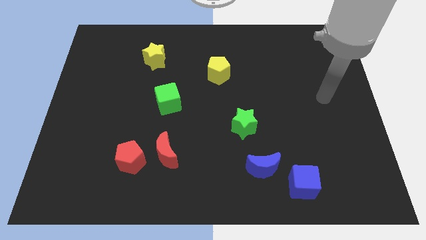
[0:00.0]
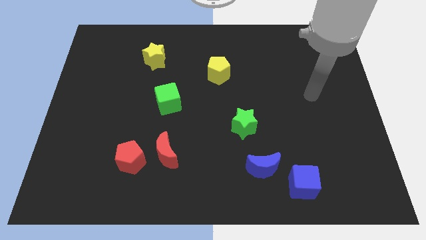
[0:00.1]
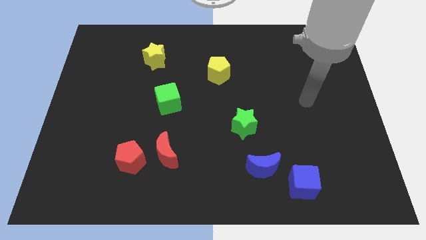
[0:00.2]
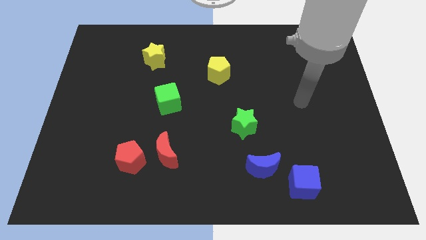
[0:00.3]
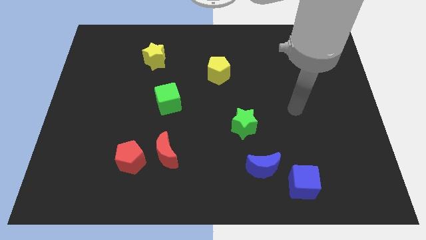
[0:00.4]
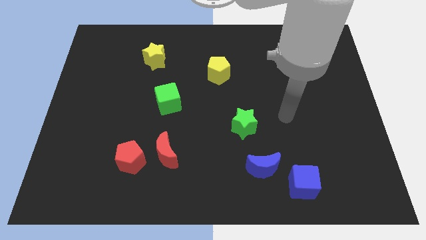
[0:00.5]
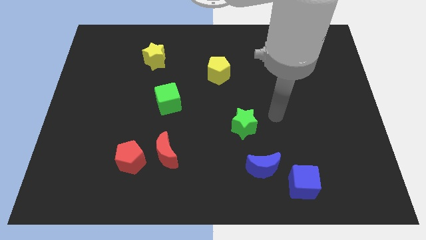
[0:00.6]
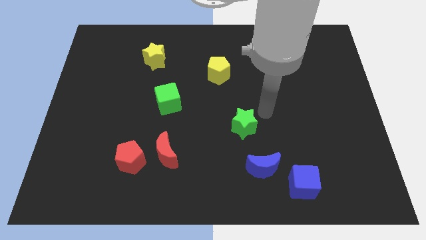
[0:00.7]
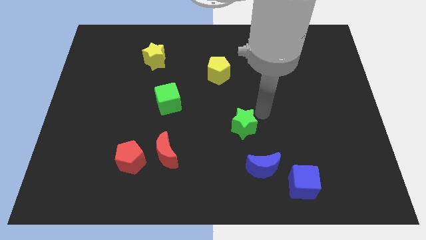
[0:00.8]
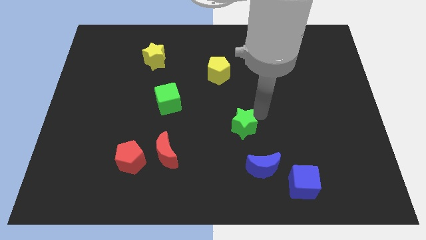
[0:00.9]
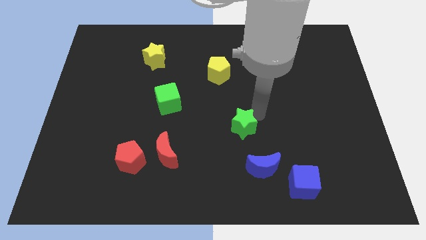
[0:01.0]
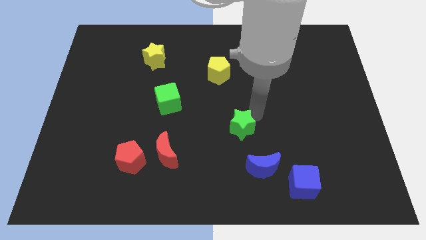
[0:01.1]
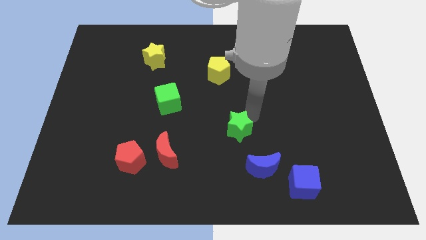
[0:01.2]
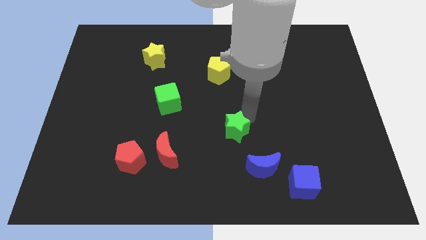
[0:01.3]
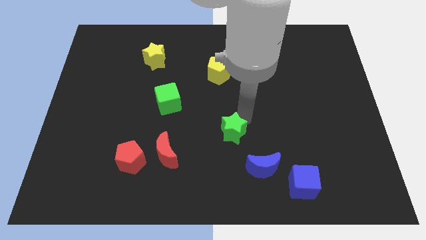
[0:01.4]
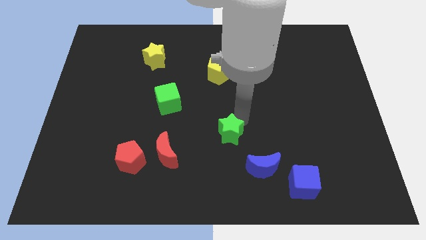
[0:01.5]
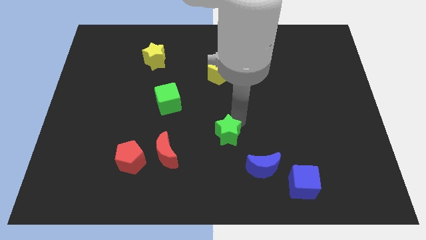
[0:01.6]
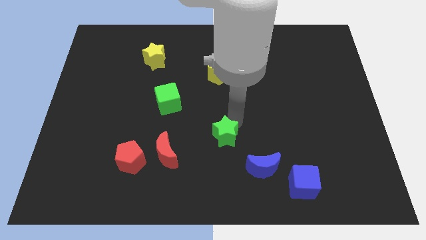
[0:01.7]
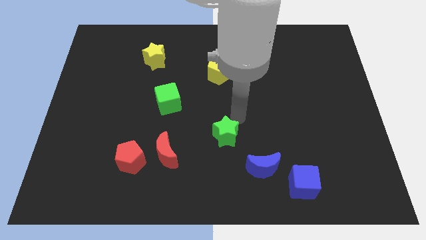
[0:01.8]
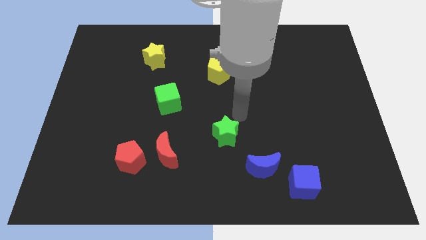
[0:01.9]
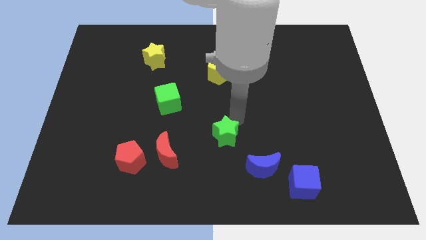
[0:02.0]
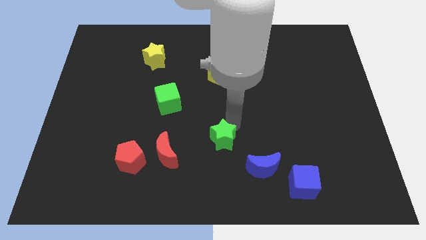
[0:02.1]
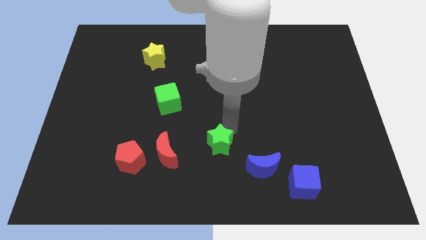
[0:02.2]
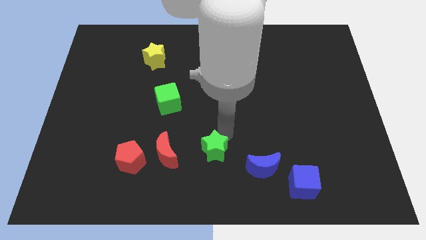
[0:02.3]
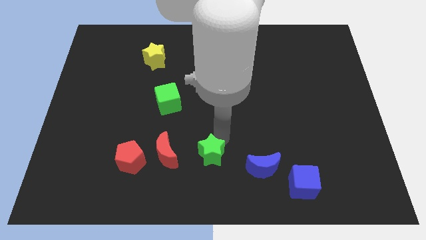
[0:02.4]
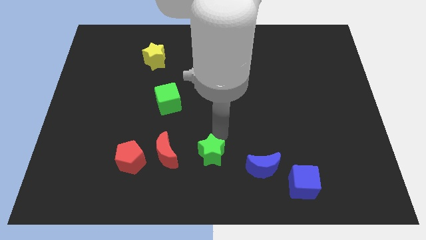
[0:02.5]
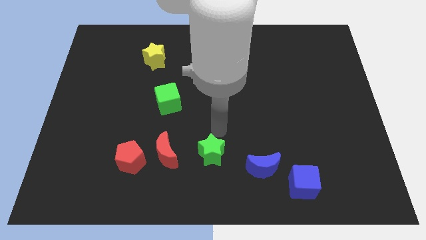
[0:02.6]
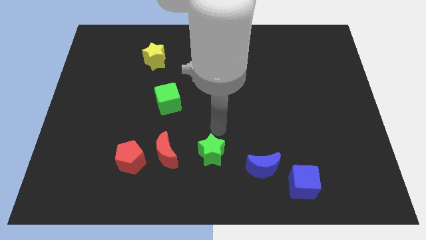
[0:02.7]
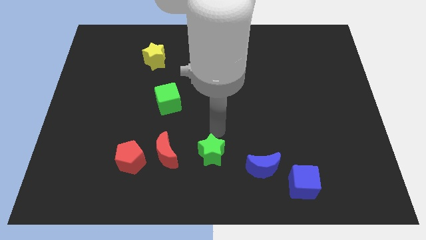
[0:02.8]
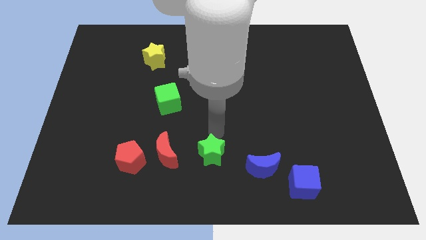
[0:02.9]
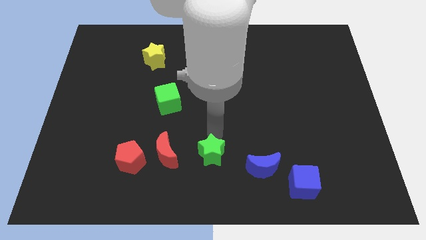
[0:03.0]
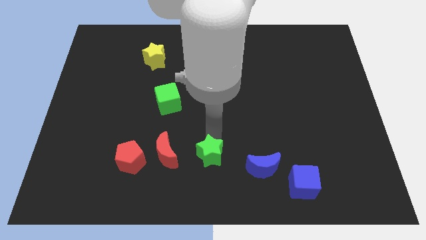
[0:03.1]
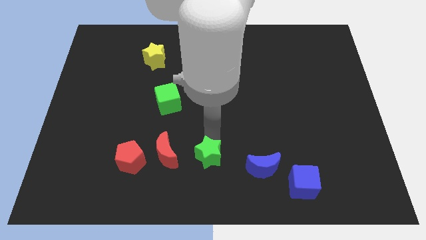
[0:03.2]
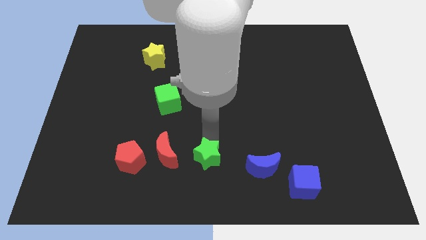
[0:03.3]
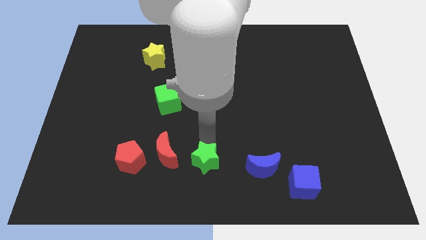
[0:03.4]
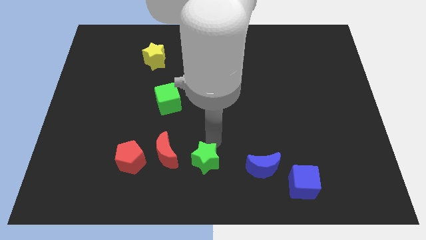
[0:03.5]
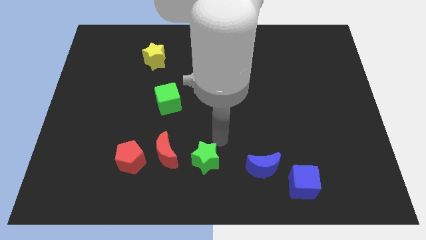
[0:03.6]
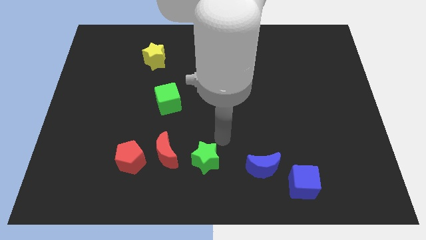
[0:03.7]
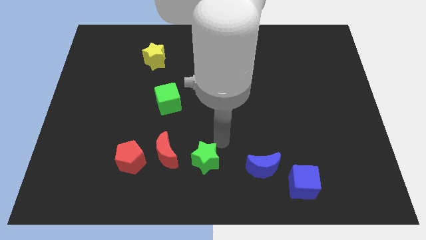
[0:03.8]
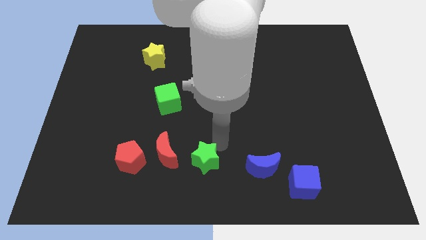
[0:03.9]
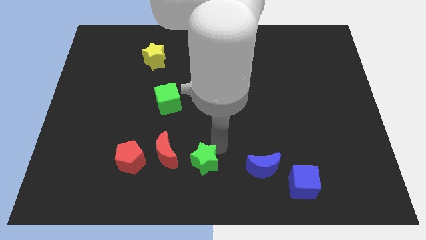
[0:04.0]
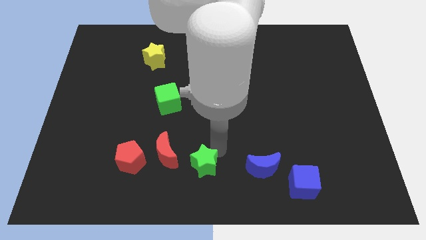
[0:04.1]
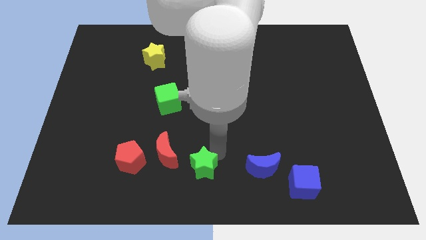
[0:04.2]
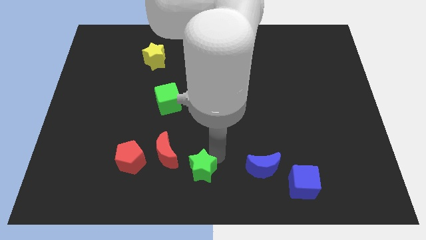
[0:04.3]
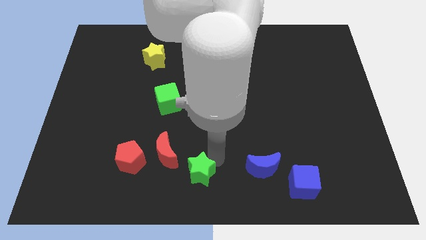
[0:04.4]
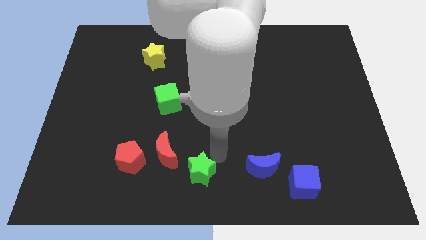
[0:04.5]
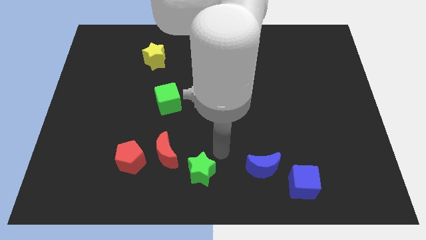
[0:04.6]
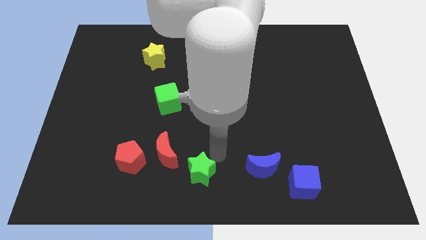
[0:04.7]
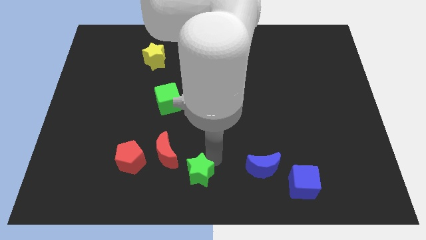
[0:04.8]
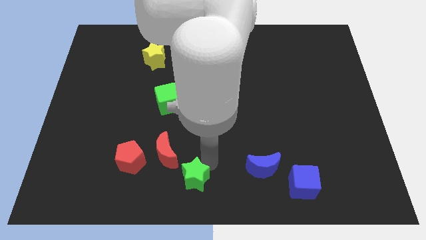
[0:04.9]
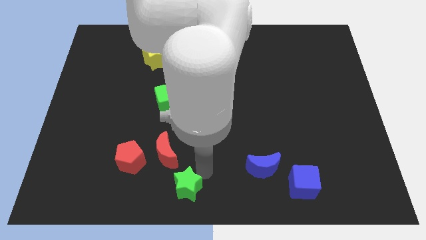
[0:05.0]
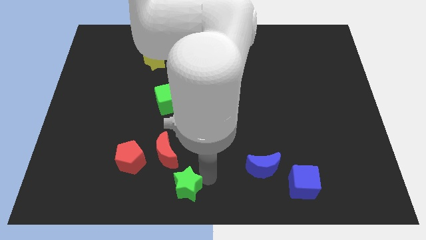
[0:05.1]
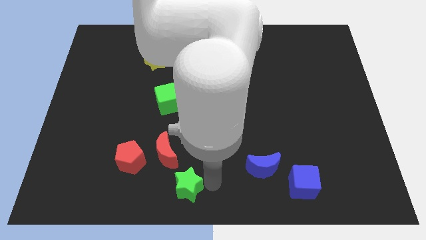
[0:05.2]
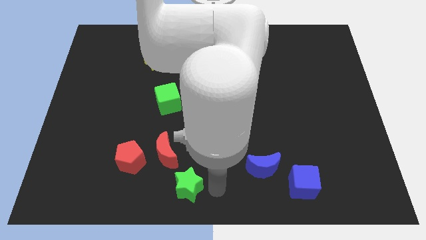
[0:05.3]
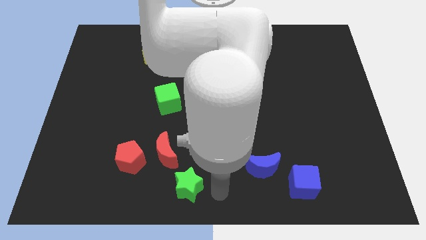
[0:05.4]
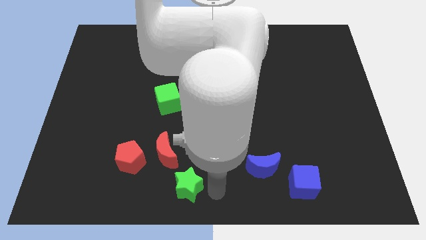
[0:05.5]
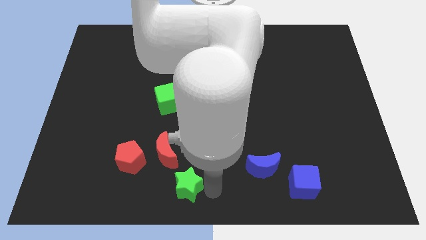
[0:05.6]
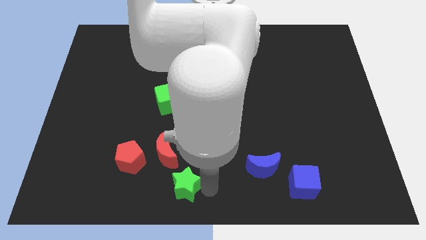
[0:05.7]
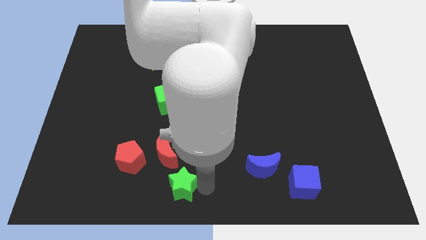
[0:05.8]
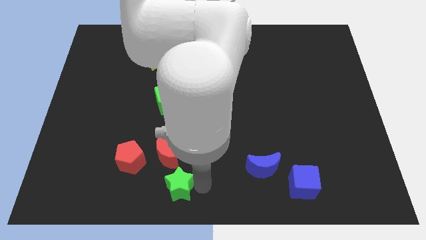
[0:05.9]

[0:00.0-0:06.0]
put the green star to the bottom right of the red pentagon
